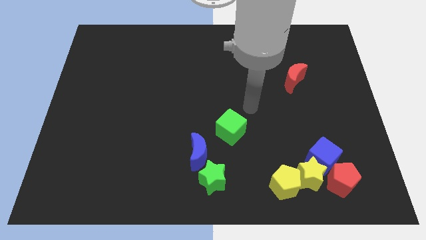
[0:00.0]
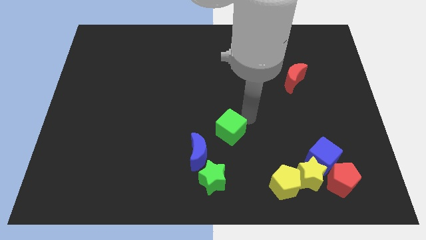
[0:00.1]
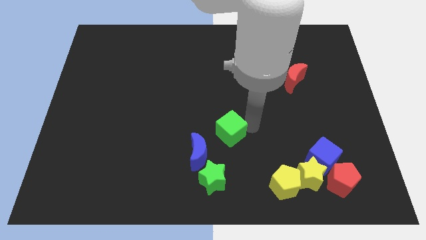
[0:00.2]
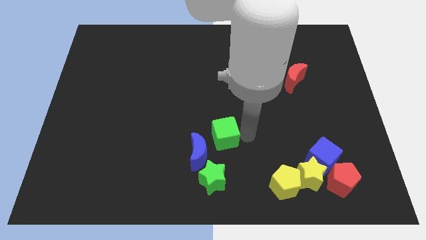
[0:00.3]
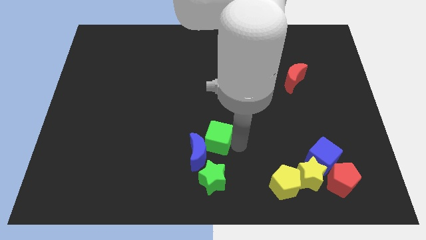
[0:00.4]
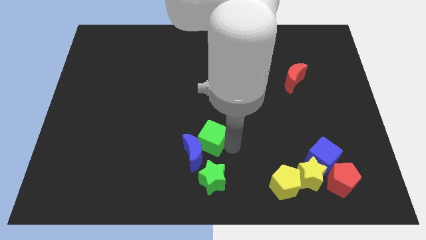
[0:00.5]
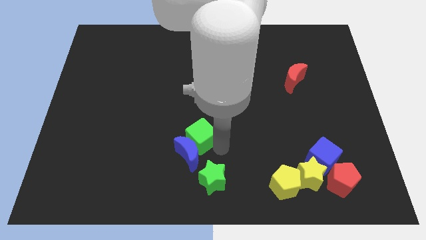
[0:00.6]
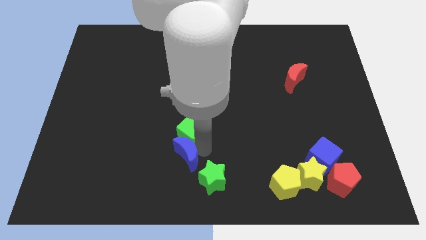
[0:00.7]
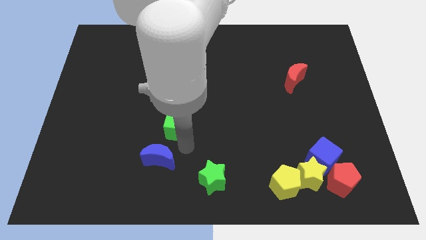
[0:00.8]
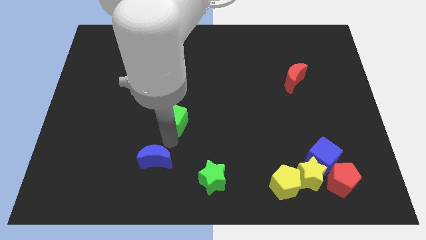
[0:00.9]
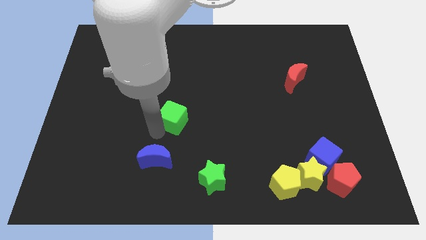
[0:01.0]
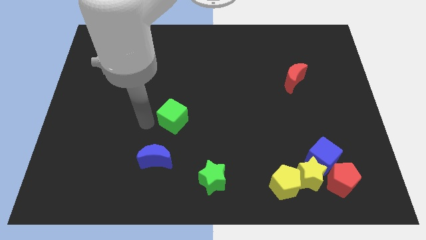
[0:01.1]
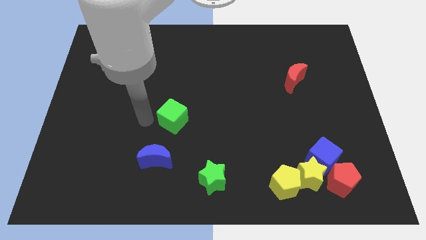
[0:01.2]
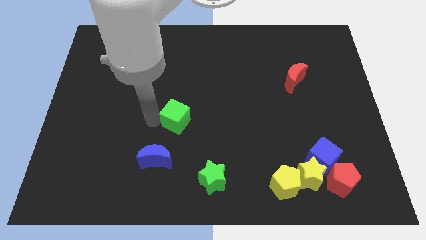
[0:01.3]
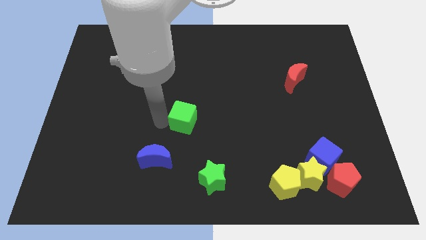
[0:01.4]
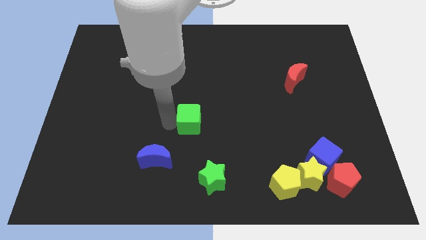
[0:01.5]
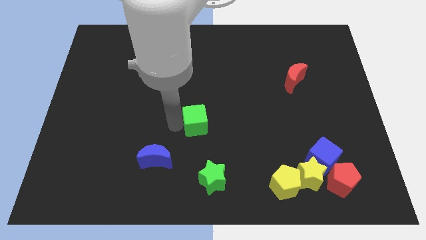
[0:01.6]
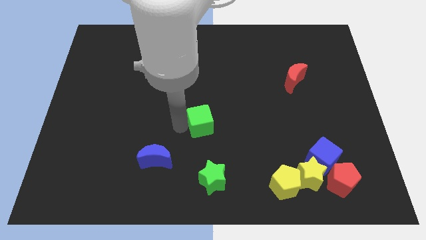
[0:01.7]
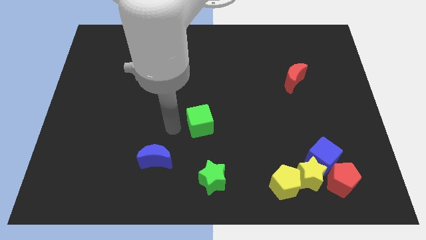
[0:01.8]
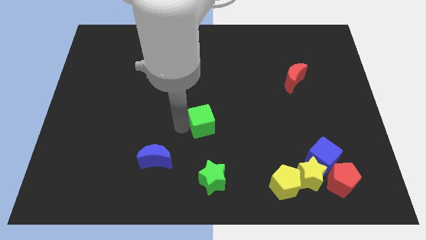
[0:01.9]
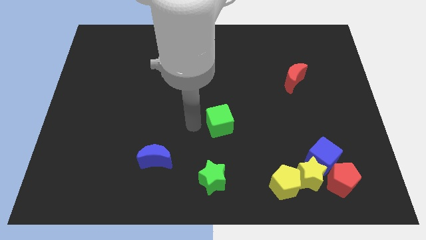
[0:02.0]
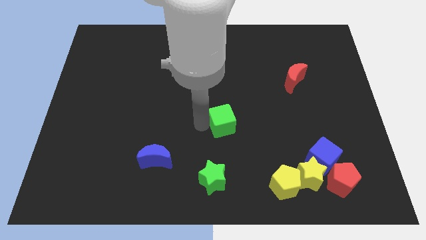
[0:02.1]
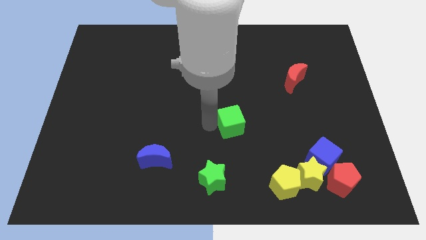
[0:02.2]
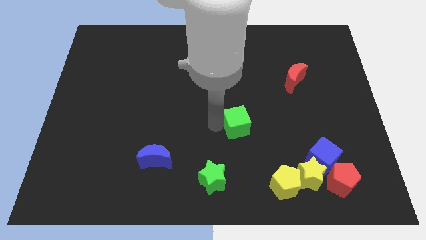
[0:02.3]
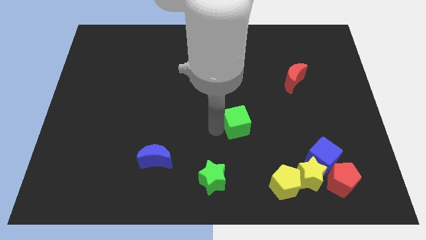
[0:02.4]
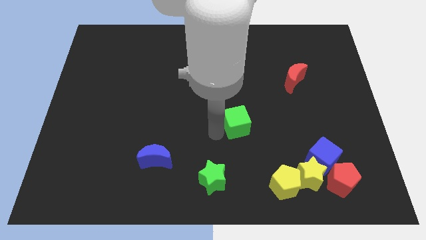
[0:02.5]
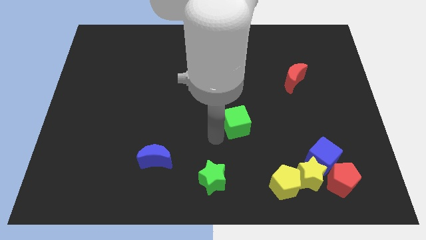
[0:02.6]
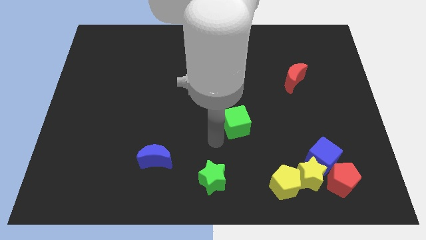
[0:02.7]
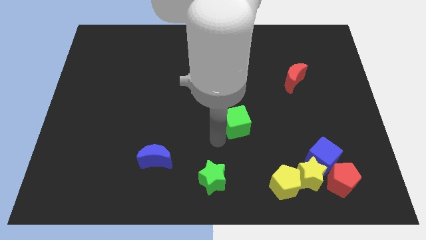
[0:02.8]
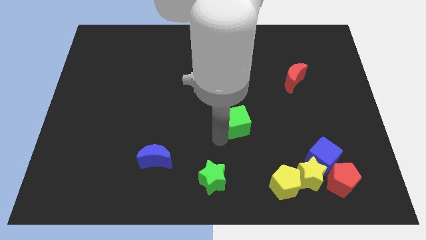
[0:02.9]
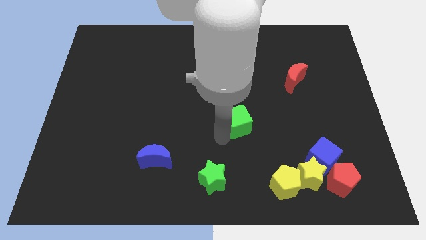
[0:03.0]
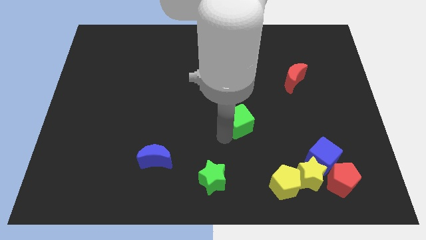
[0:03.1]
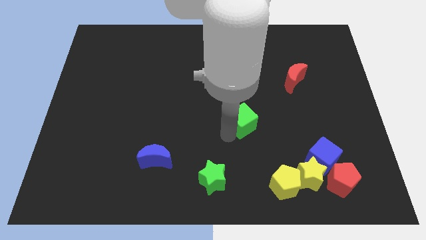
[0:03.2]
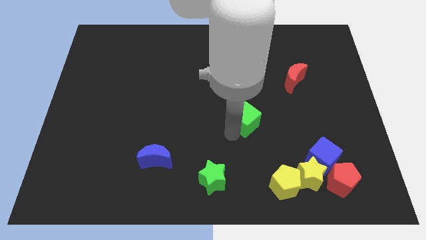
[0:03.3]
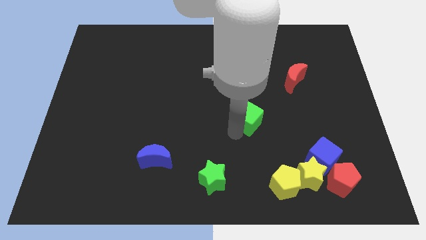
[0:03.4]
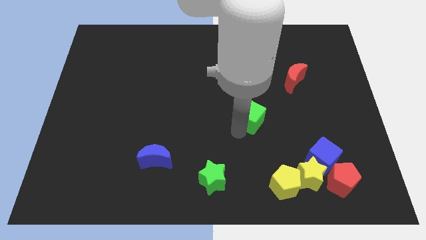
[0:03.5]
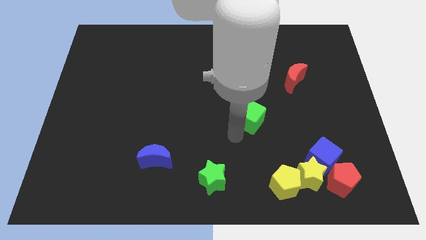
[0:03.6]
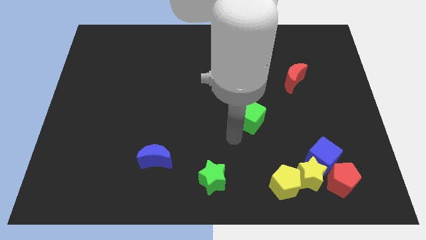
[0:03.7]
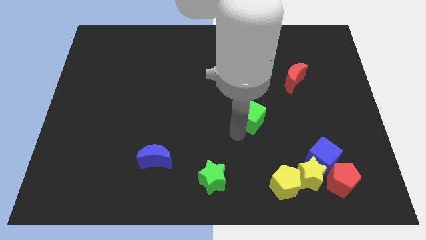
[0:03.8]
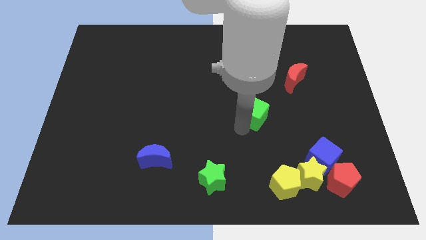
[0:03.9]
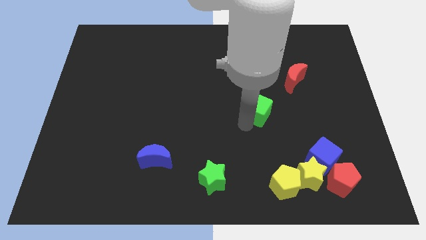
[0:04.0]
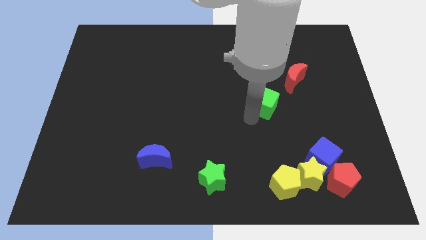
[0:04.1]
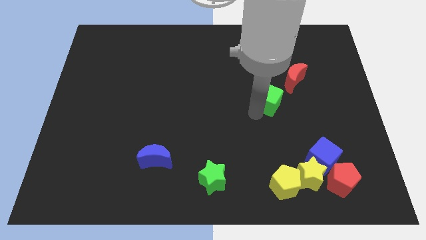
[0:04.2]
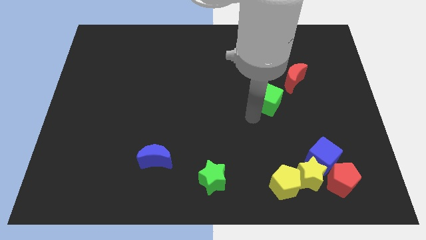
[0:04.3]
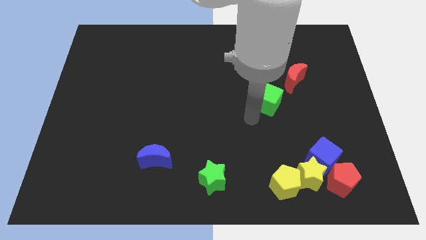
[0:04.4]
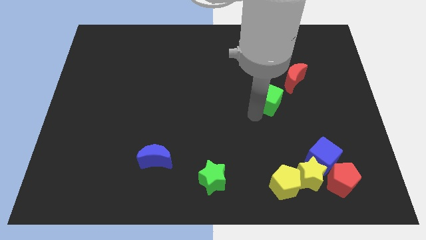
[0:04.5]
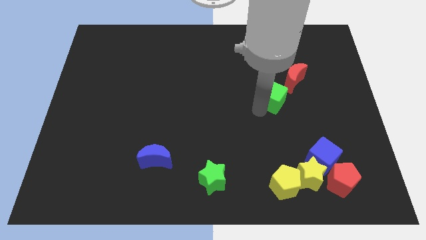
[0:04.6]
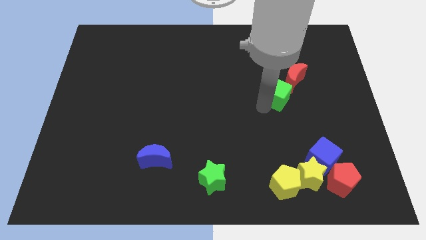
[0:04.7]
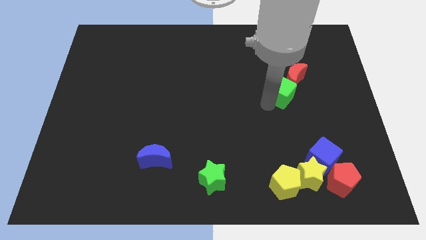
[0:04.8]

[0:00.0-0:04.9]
push the green cube close to the red moon

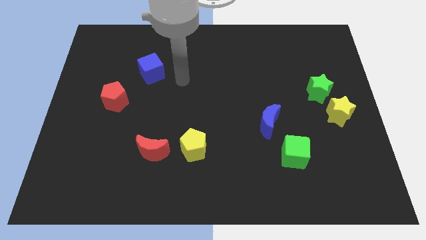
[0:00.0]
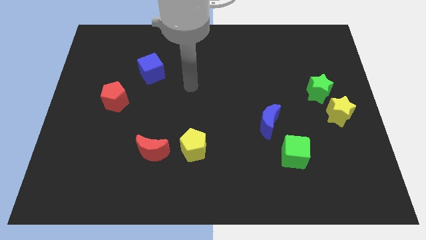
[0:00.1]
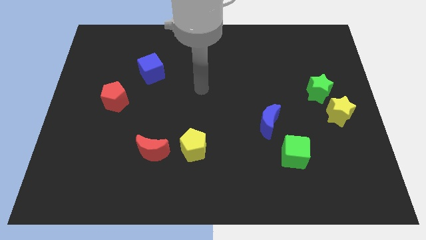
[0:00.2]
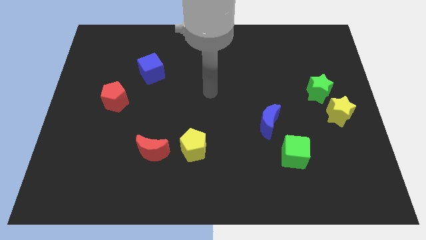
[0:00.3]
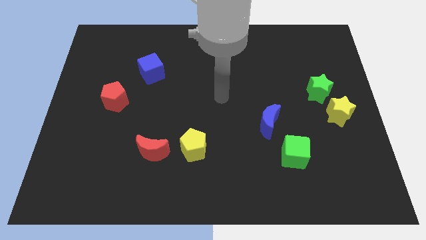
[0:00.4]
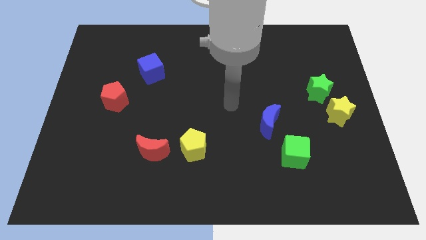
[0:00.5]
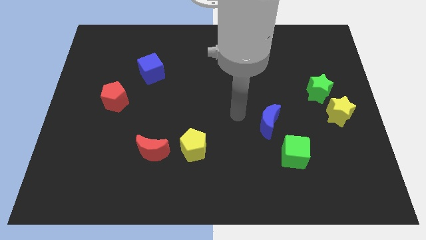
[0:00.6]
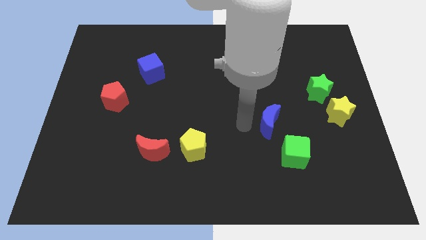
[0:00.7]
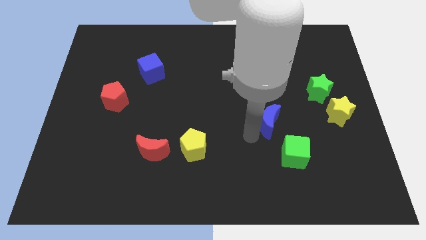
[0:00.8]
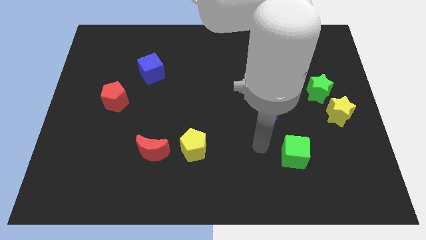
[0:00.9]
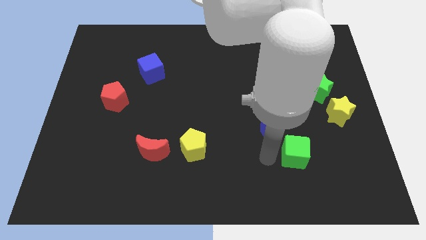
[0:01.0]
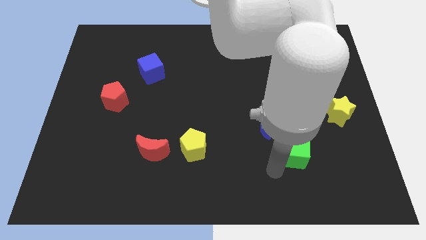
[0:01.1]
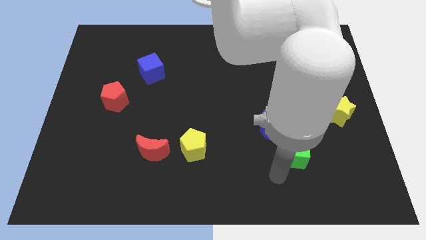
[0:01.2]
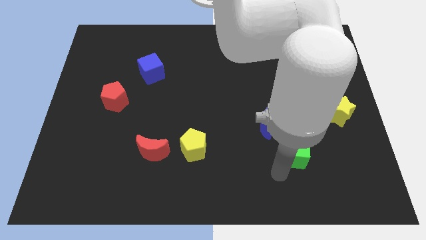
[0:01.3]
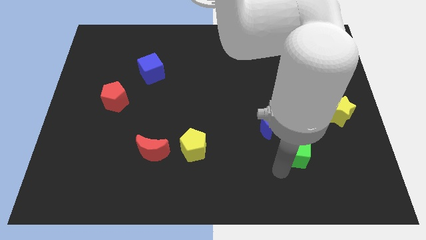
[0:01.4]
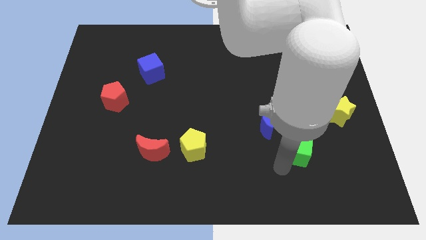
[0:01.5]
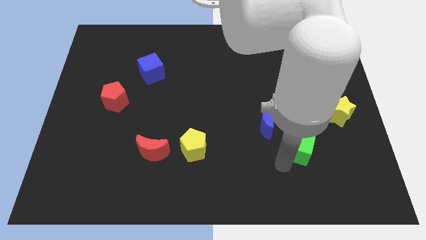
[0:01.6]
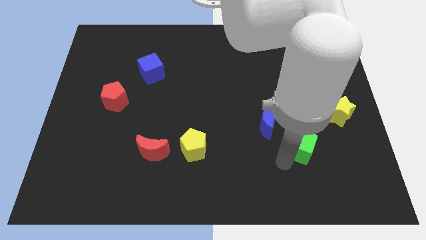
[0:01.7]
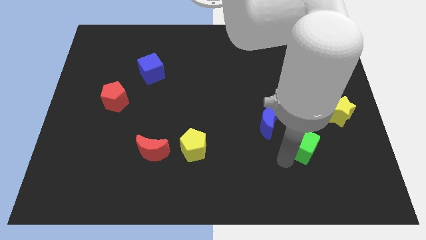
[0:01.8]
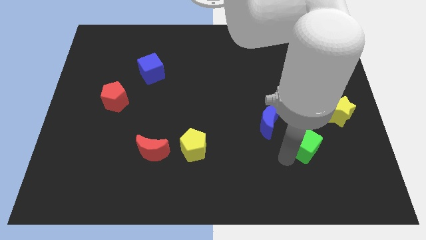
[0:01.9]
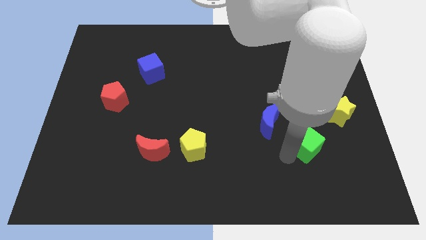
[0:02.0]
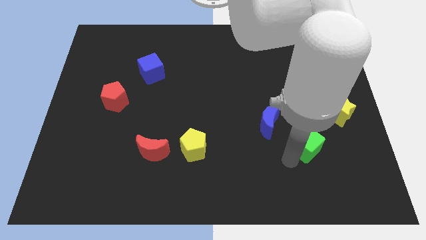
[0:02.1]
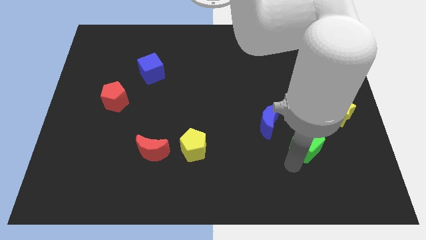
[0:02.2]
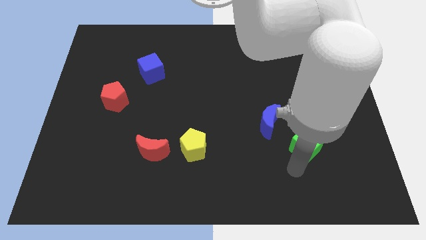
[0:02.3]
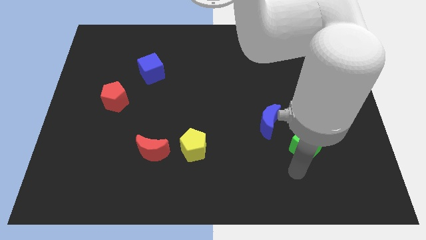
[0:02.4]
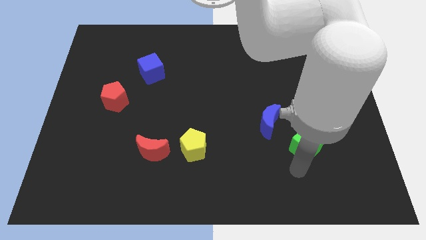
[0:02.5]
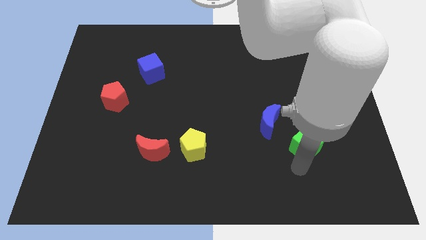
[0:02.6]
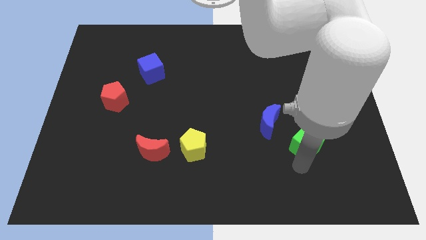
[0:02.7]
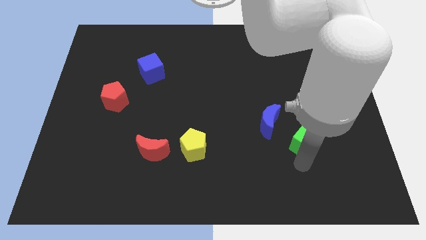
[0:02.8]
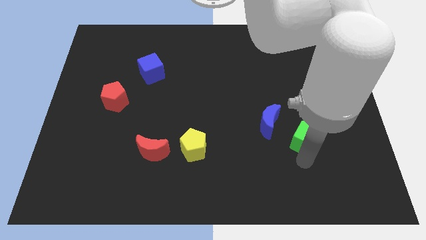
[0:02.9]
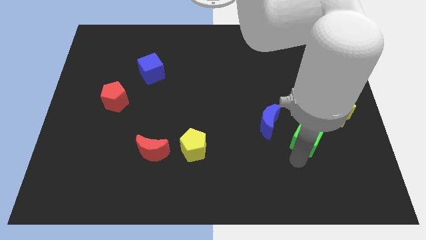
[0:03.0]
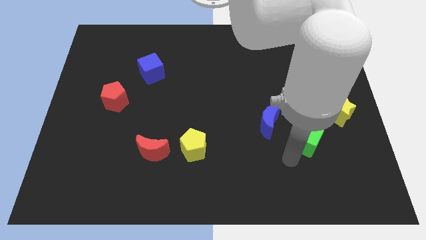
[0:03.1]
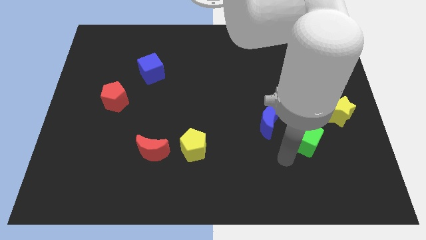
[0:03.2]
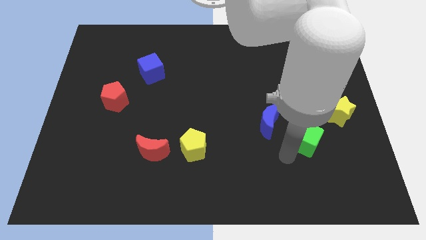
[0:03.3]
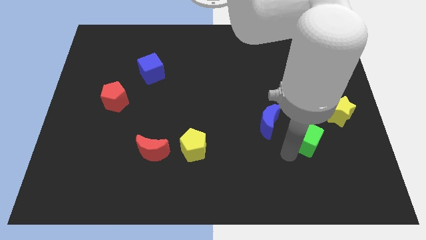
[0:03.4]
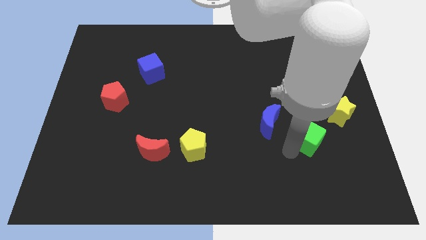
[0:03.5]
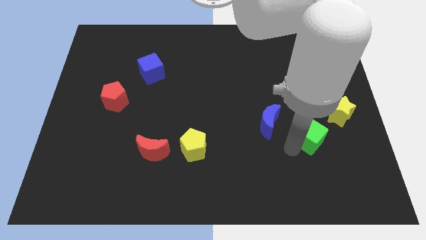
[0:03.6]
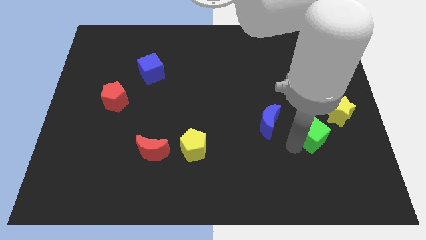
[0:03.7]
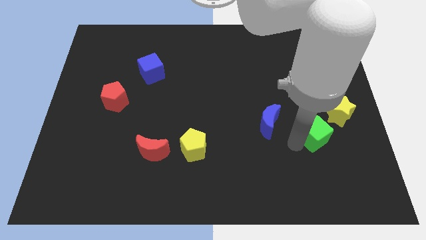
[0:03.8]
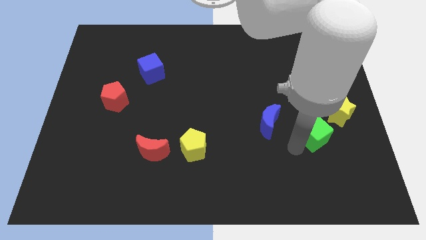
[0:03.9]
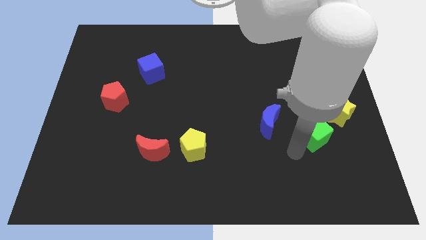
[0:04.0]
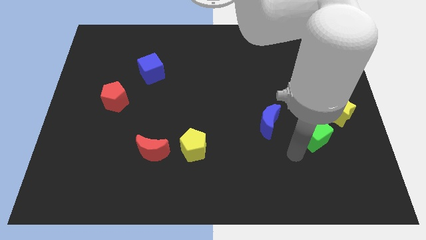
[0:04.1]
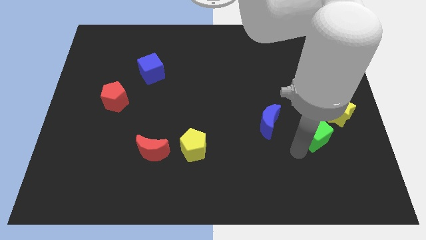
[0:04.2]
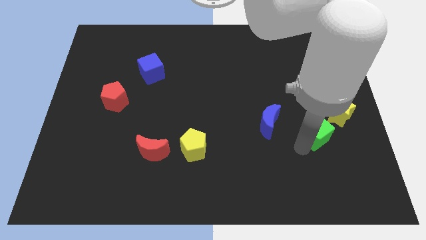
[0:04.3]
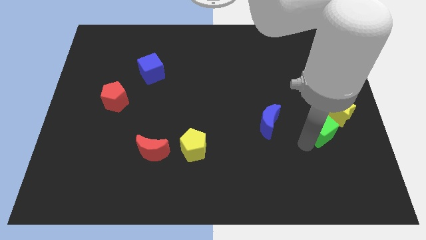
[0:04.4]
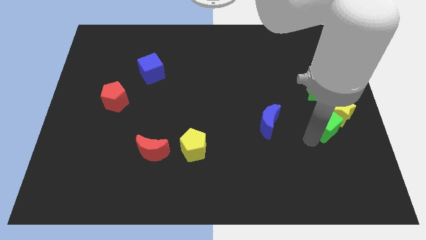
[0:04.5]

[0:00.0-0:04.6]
put the green cube to the yellow star
